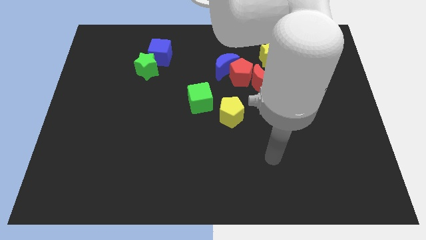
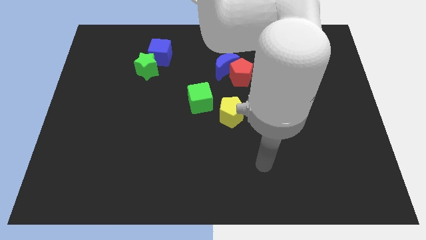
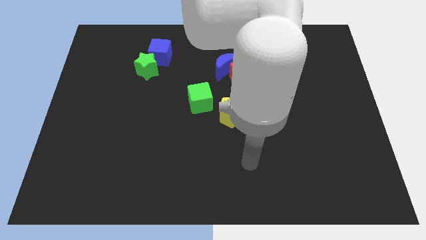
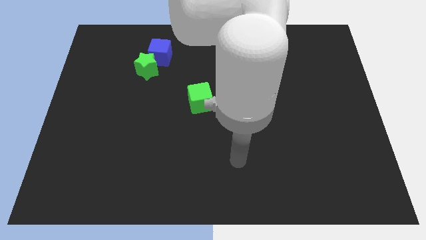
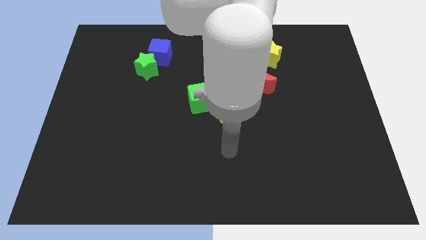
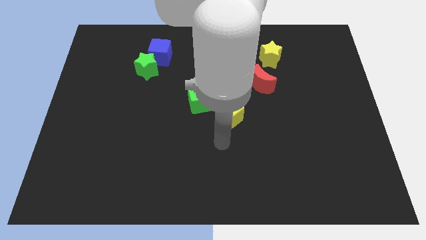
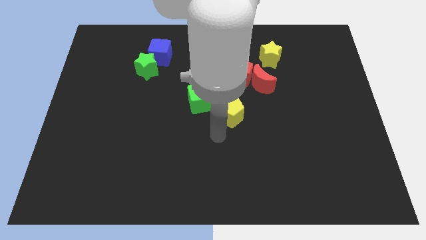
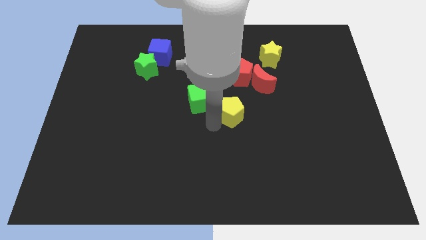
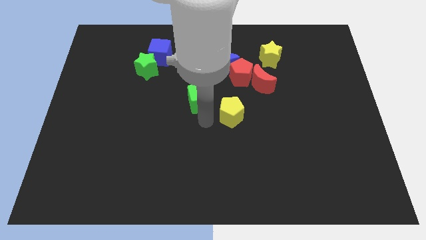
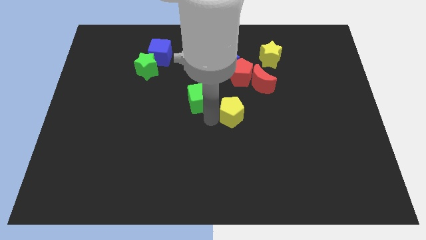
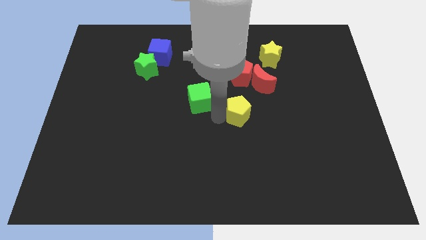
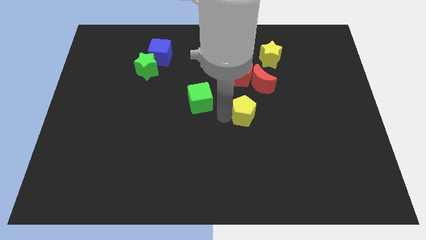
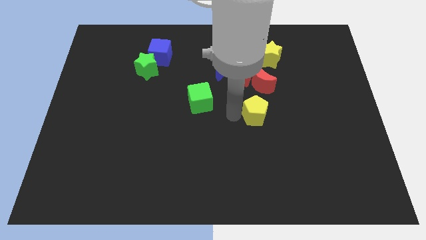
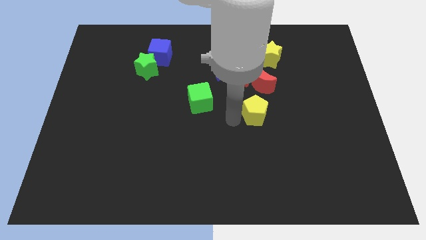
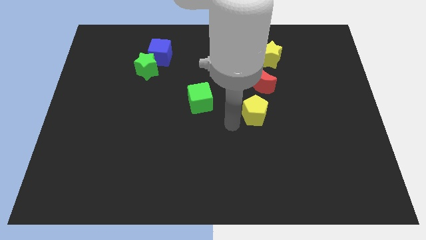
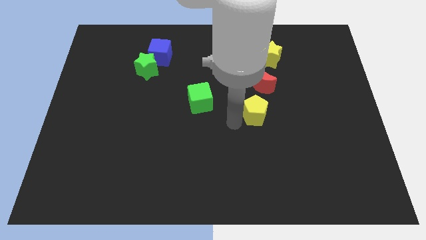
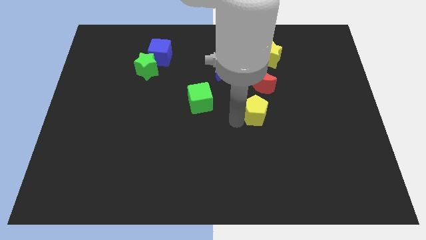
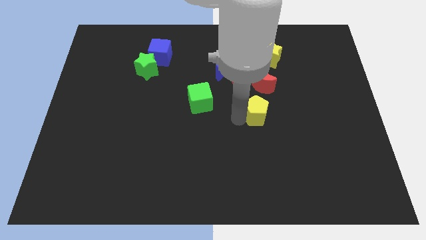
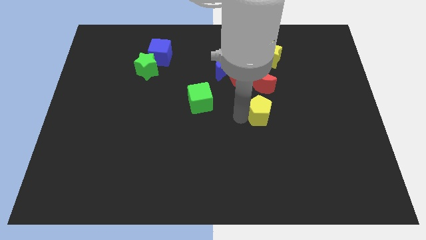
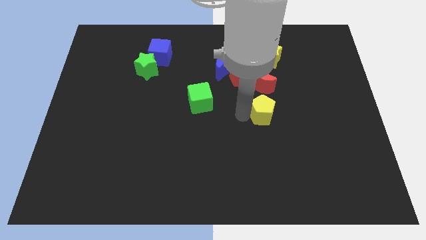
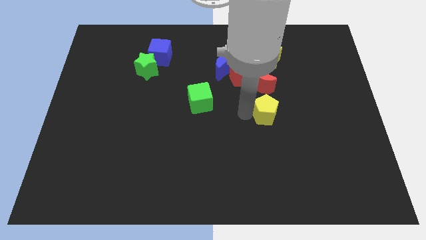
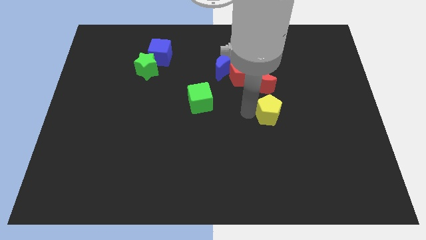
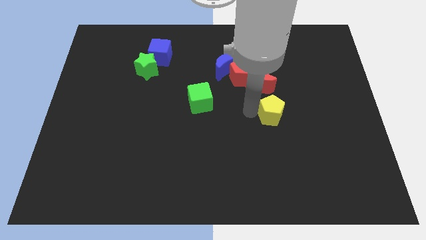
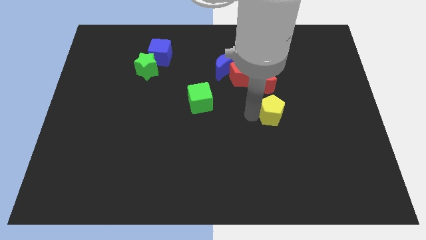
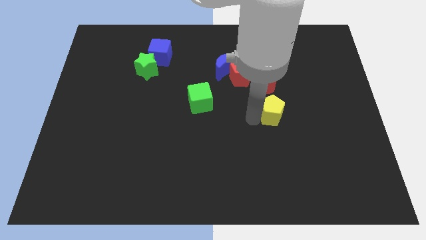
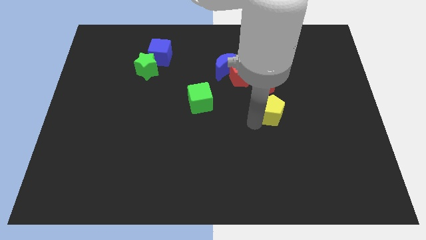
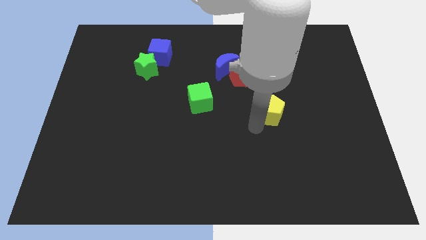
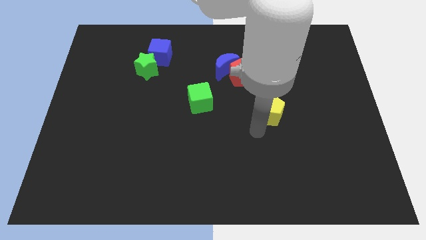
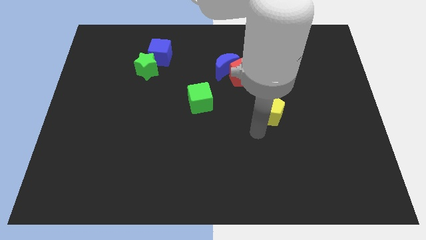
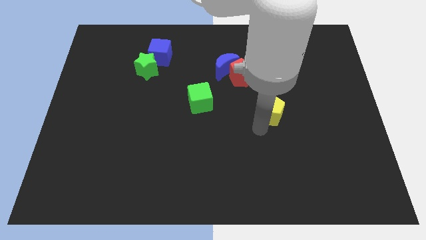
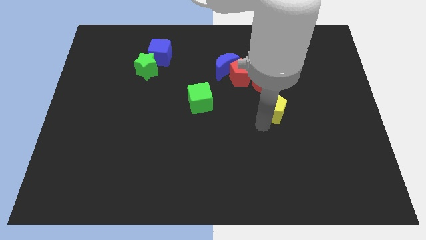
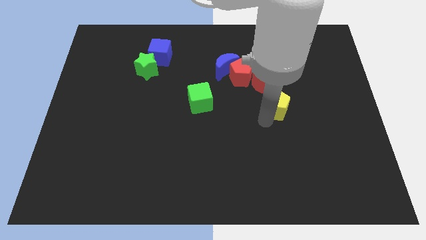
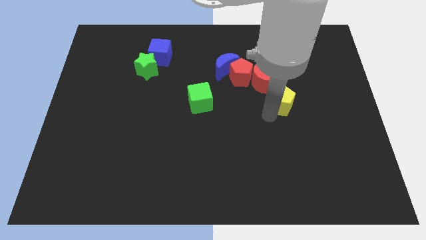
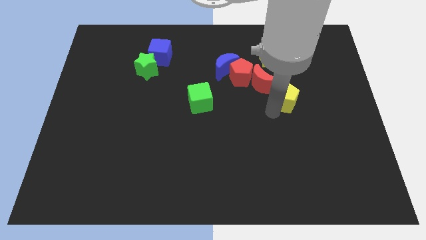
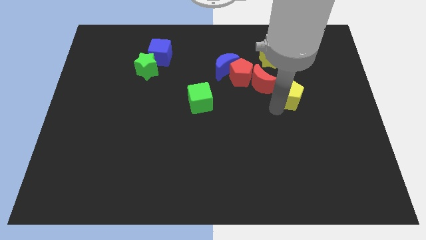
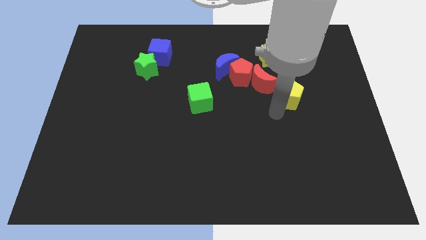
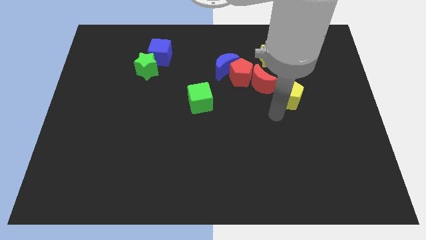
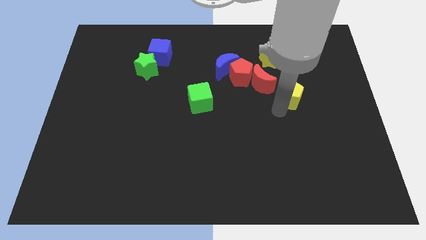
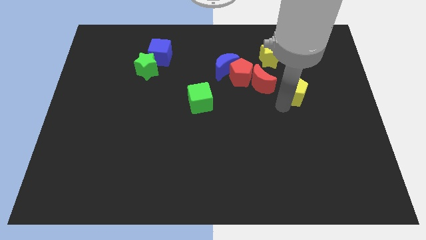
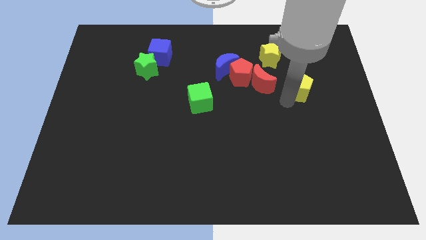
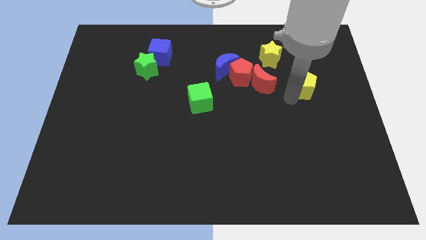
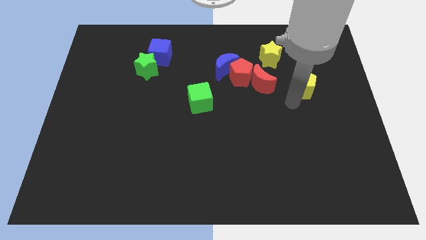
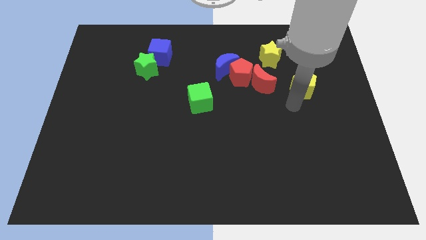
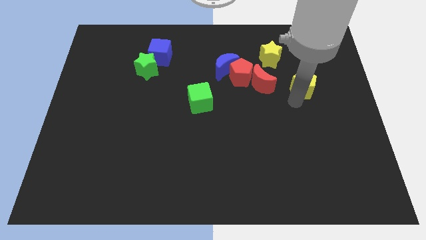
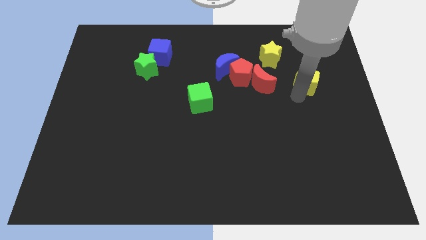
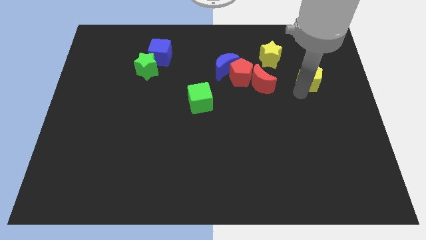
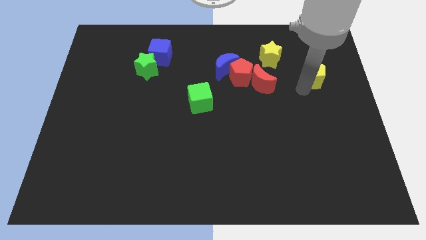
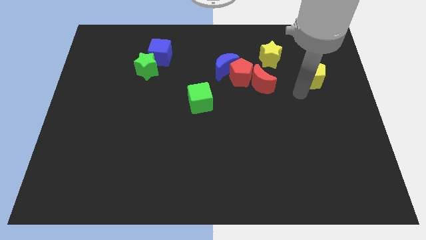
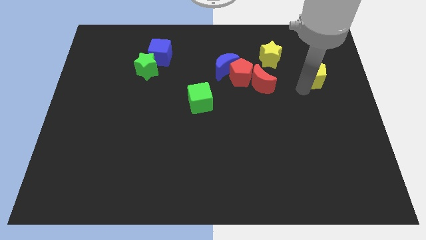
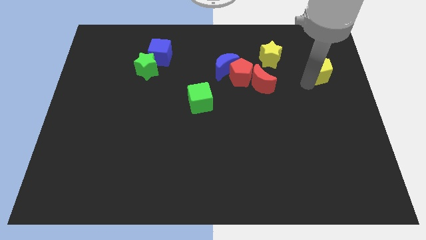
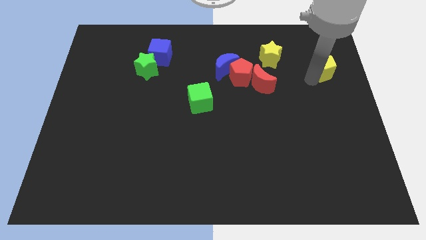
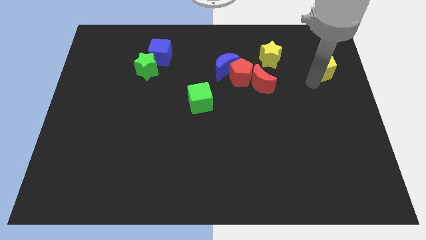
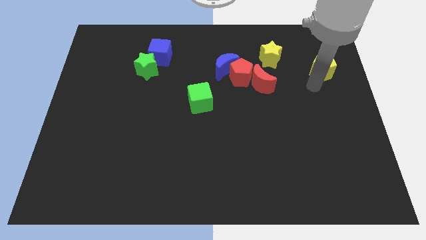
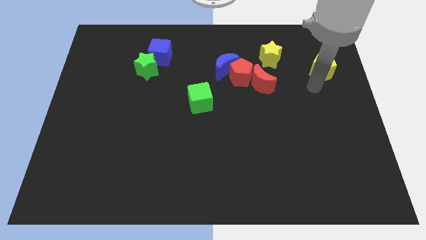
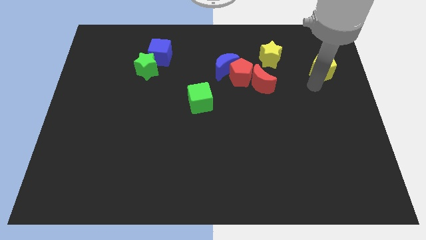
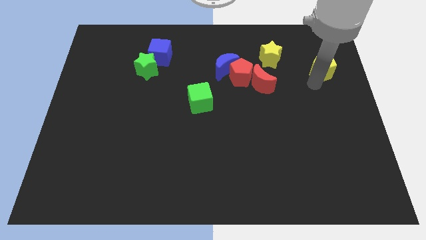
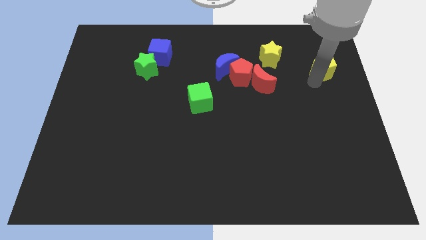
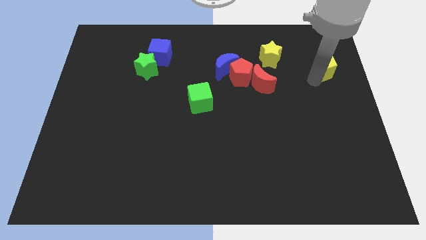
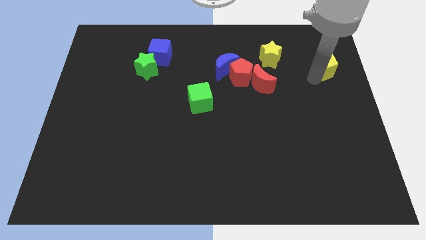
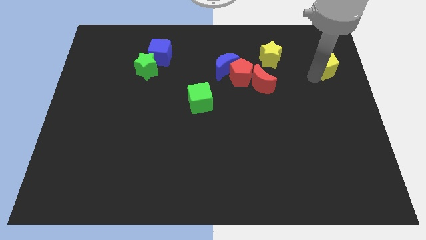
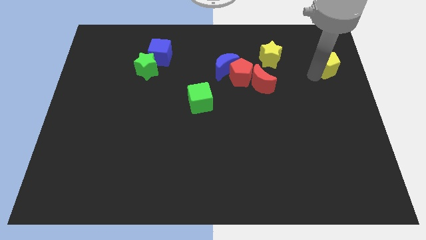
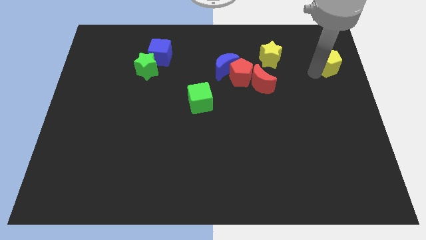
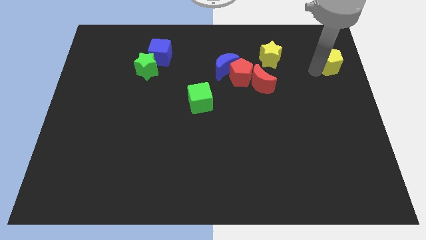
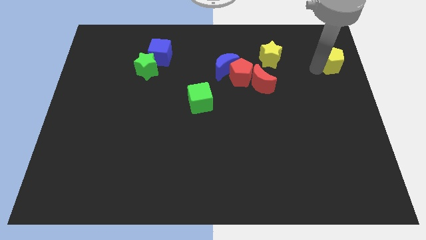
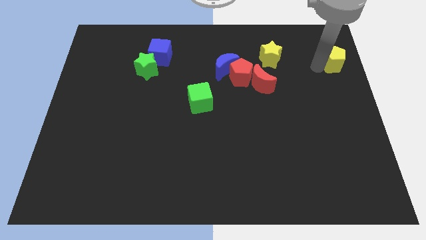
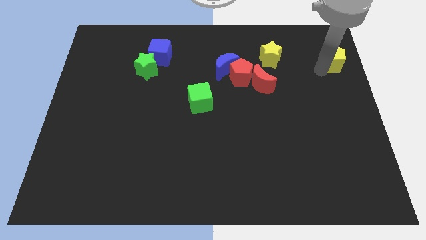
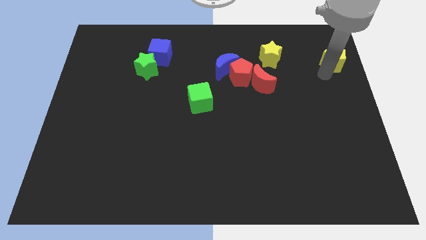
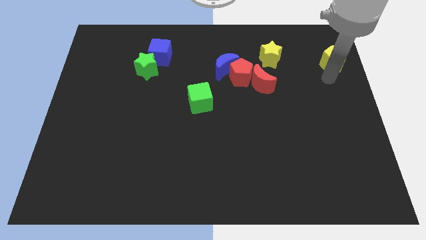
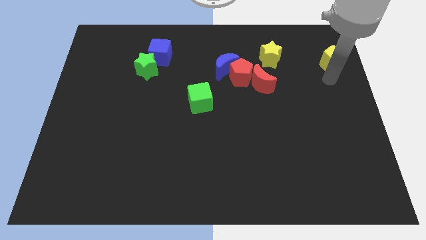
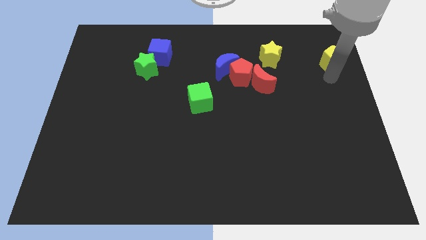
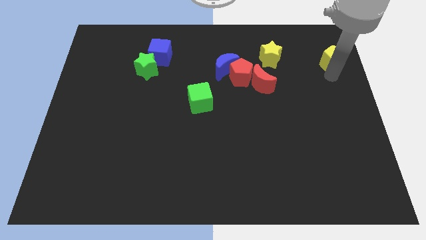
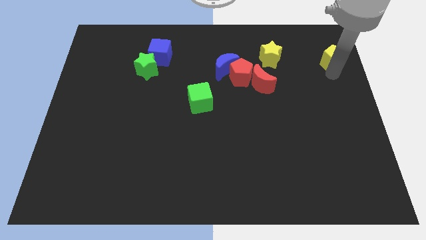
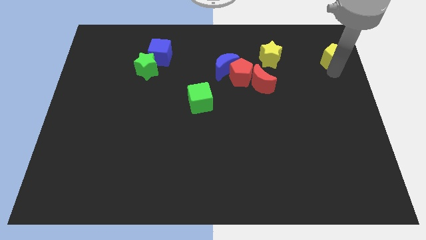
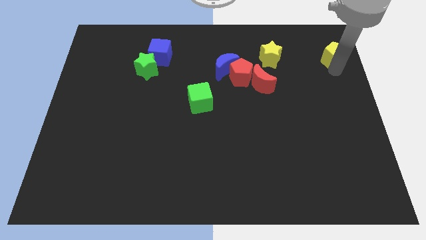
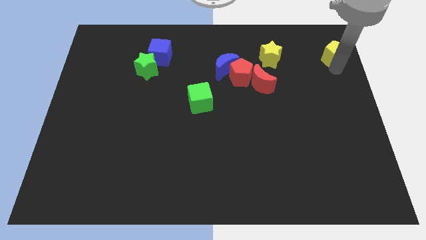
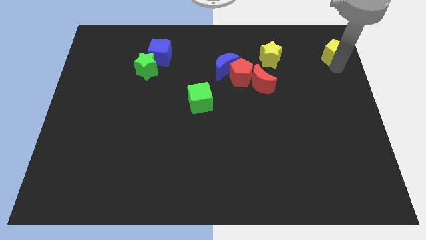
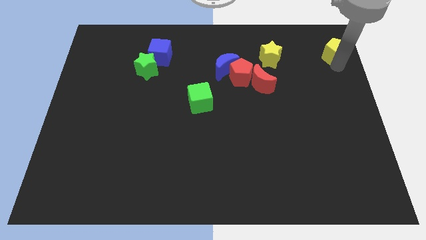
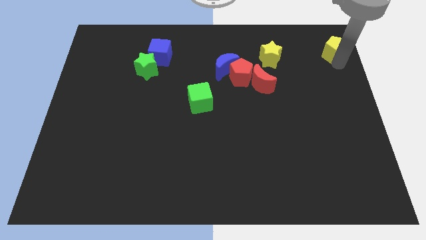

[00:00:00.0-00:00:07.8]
move the yellow pentagon to the top right
